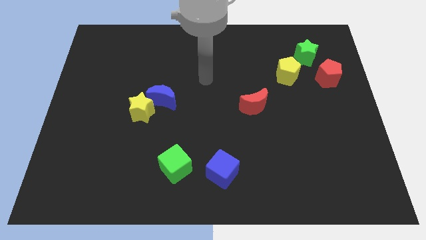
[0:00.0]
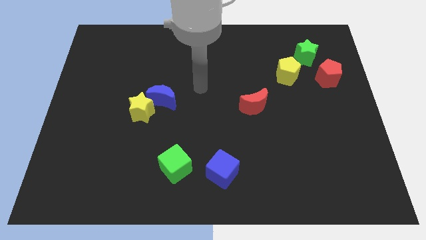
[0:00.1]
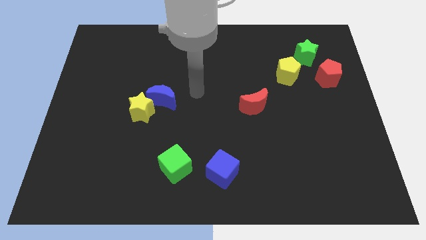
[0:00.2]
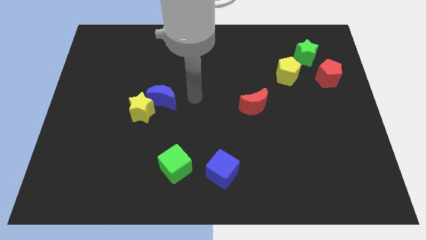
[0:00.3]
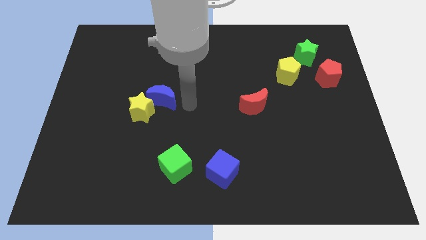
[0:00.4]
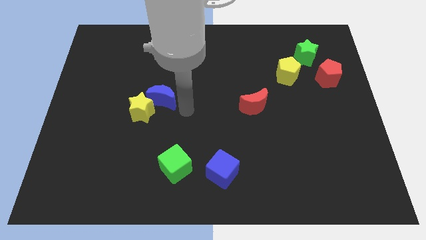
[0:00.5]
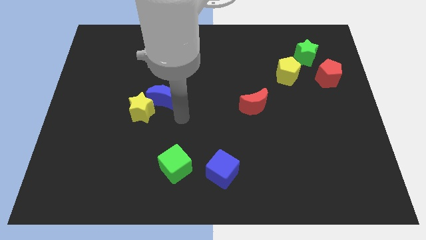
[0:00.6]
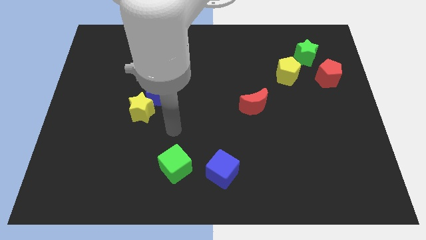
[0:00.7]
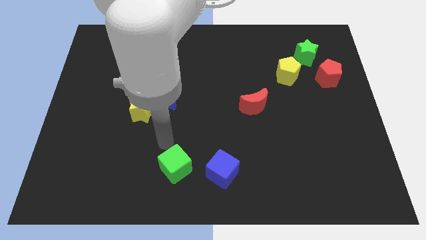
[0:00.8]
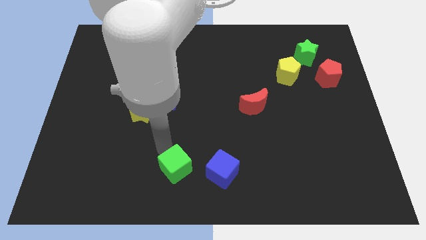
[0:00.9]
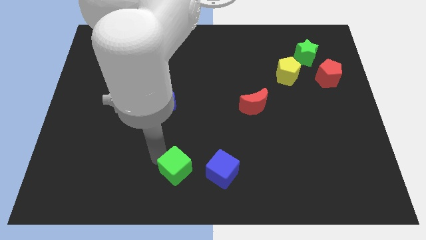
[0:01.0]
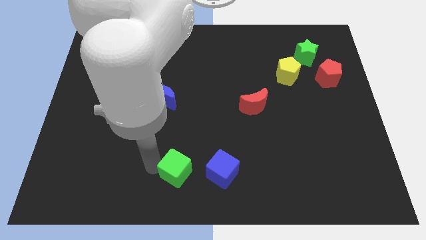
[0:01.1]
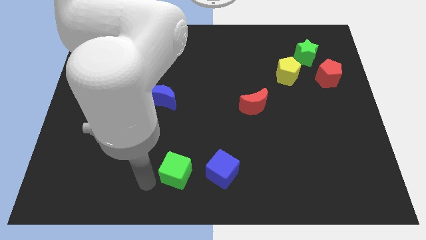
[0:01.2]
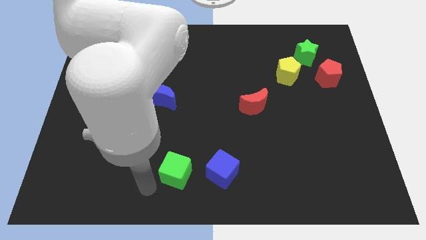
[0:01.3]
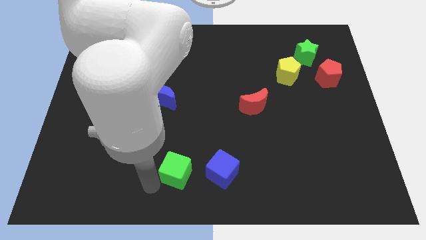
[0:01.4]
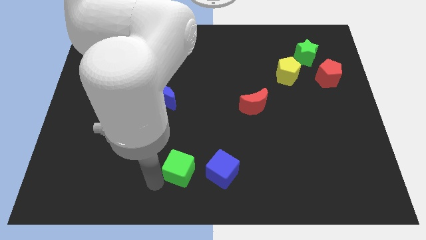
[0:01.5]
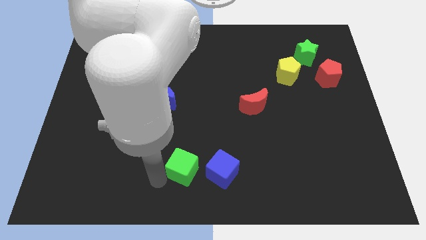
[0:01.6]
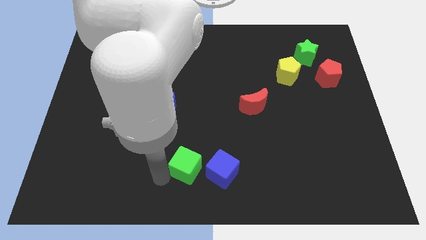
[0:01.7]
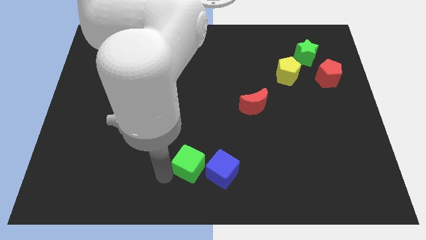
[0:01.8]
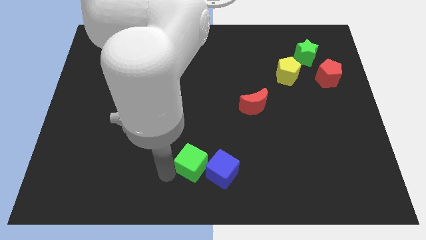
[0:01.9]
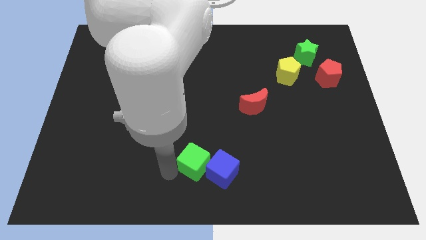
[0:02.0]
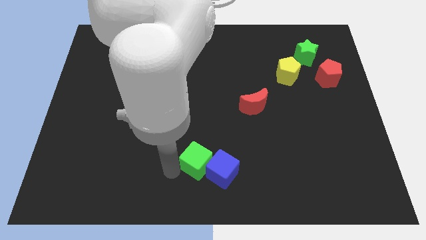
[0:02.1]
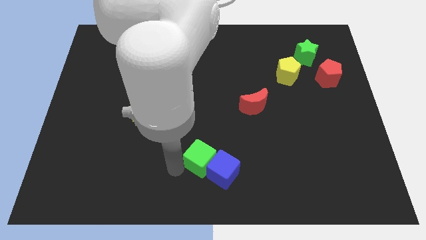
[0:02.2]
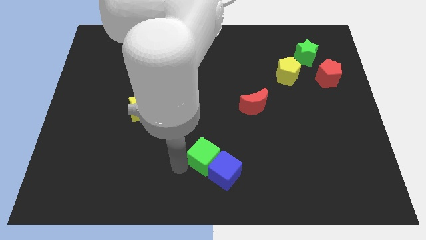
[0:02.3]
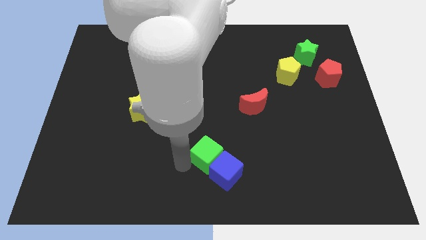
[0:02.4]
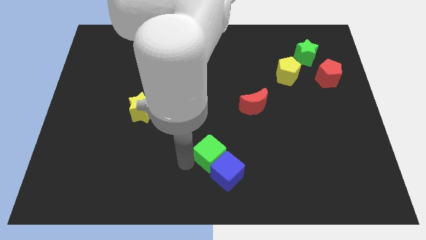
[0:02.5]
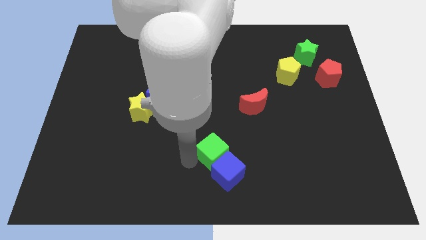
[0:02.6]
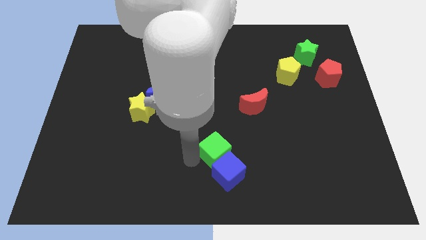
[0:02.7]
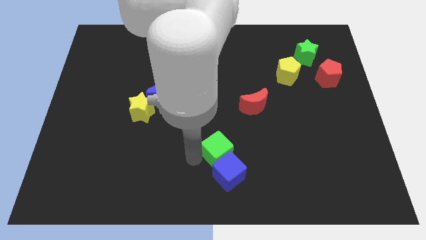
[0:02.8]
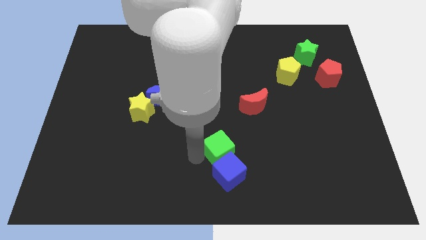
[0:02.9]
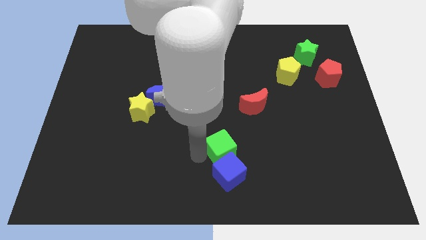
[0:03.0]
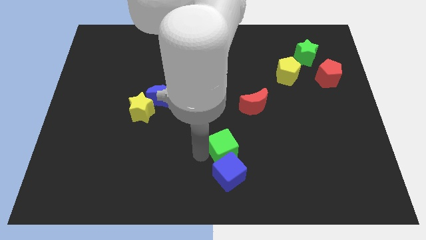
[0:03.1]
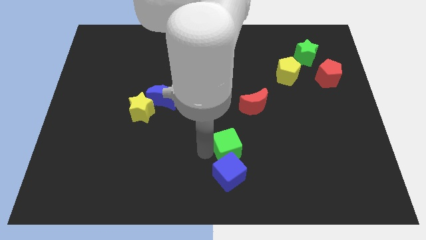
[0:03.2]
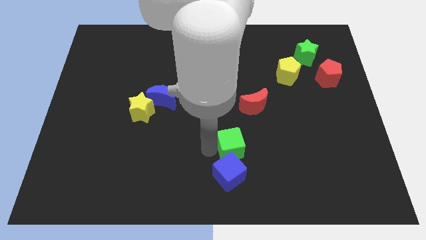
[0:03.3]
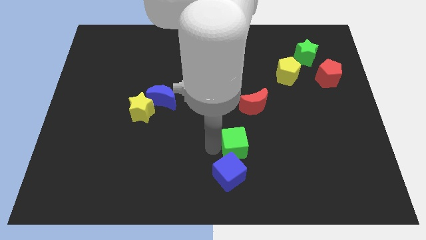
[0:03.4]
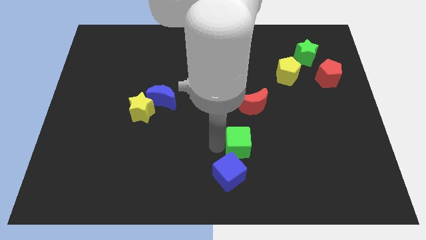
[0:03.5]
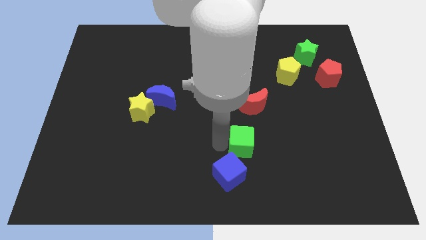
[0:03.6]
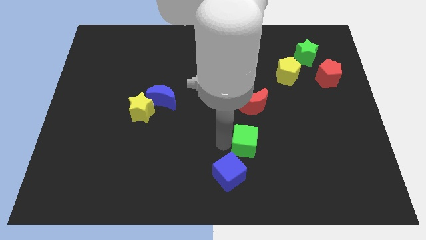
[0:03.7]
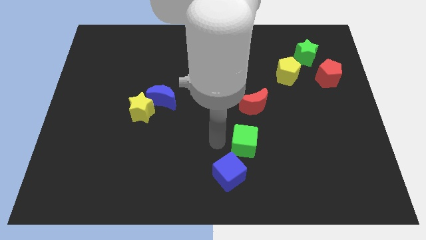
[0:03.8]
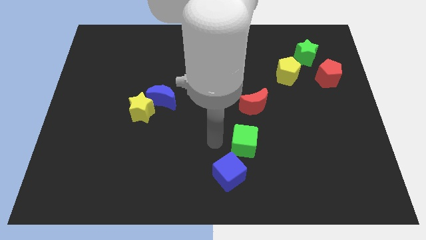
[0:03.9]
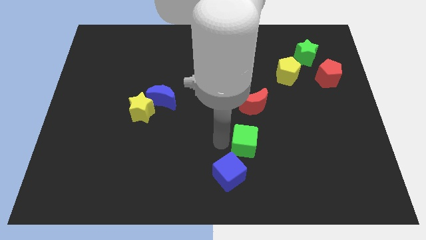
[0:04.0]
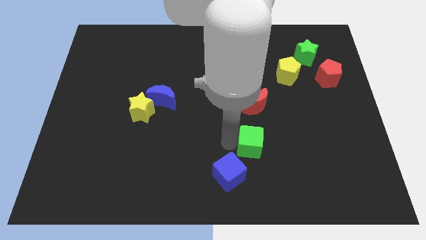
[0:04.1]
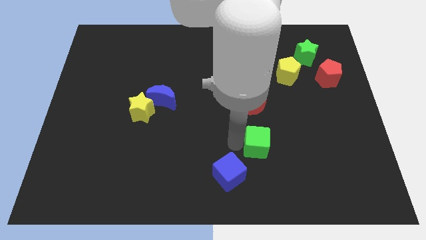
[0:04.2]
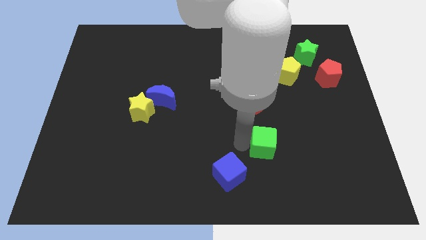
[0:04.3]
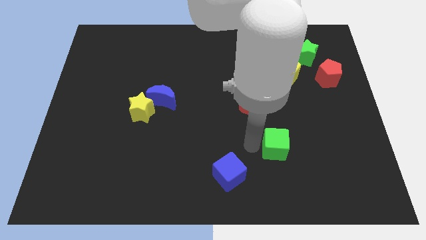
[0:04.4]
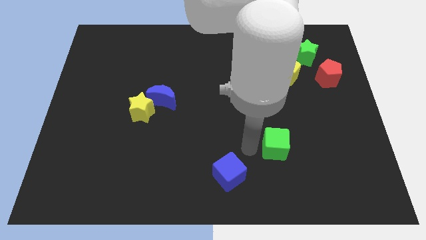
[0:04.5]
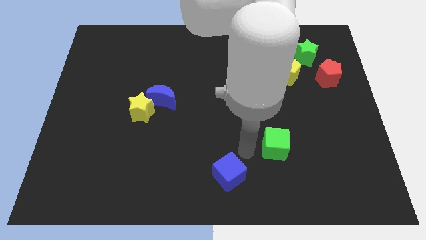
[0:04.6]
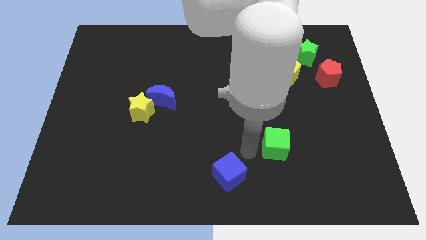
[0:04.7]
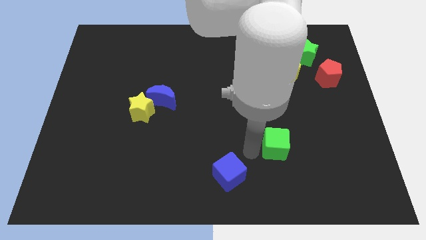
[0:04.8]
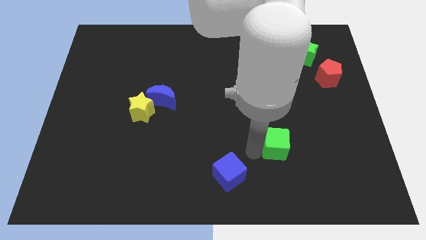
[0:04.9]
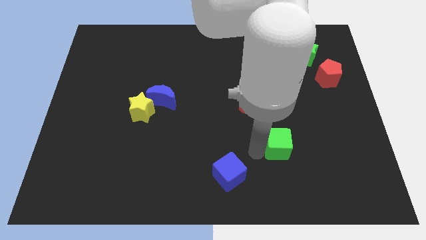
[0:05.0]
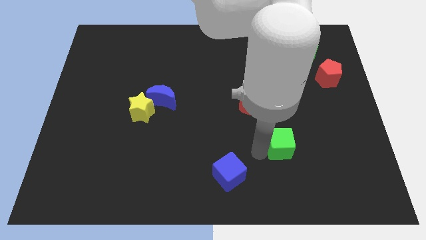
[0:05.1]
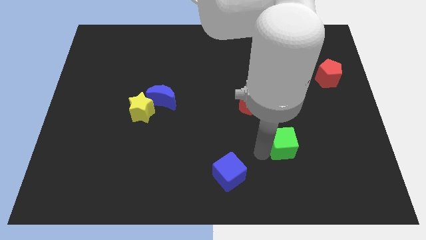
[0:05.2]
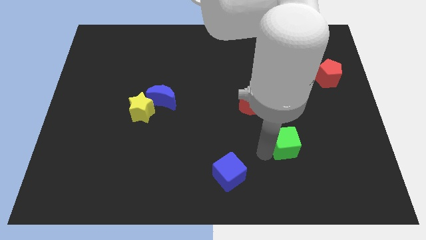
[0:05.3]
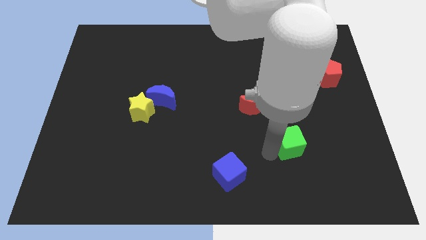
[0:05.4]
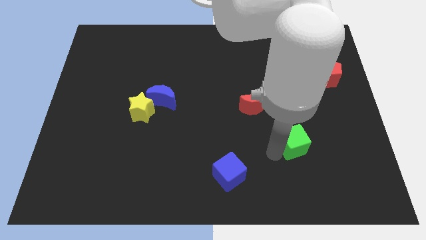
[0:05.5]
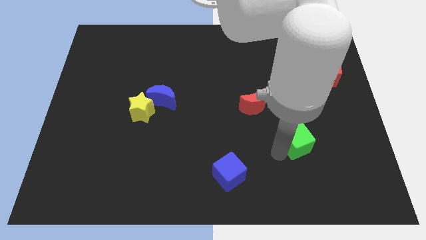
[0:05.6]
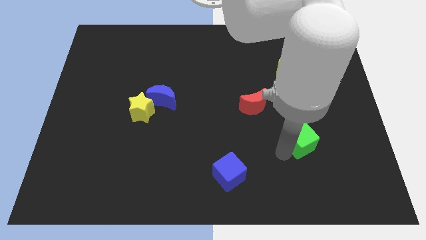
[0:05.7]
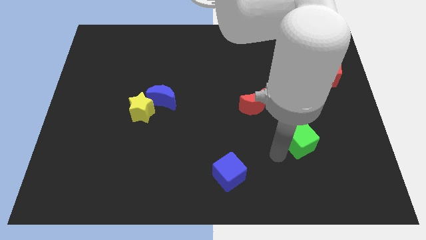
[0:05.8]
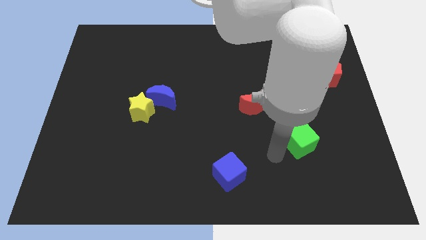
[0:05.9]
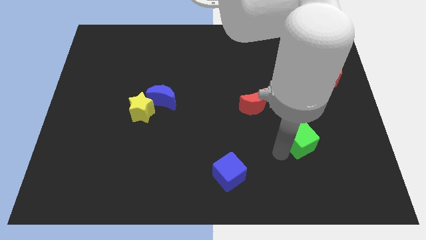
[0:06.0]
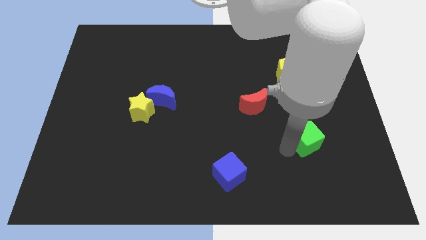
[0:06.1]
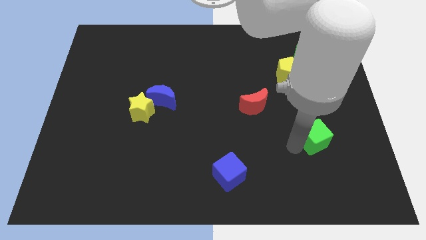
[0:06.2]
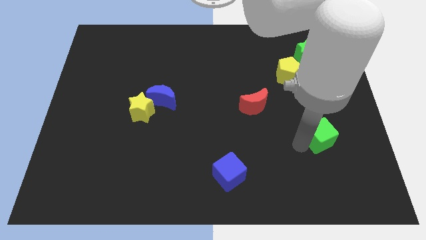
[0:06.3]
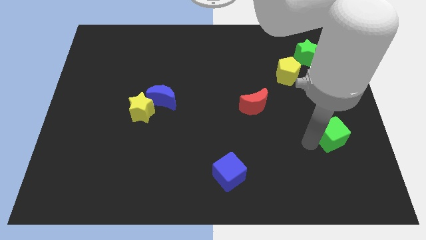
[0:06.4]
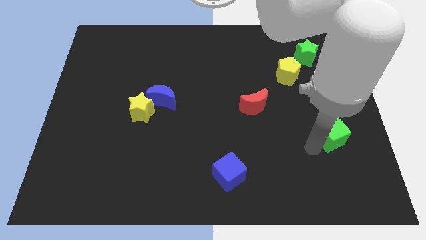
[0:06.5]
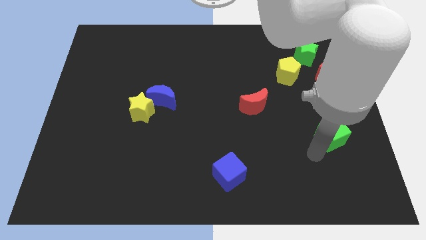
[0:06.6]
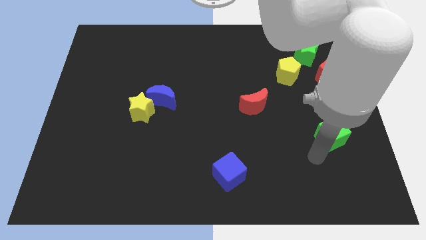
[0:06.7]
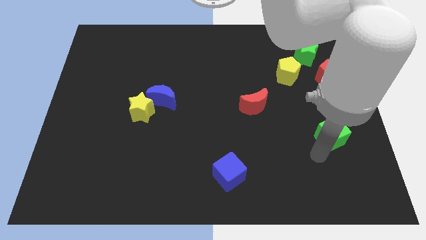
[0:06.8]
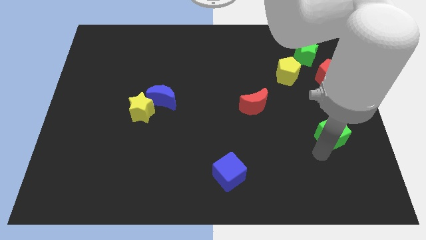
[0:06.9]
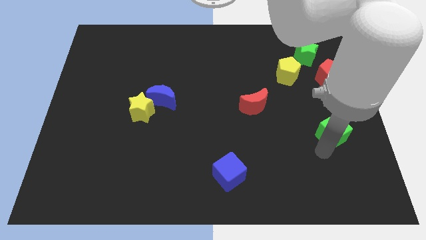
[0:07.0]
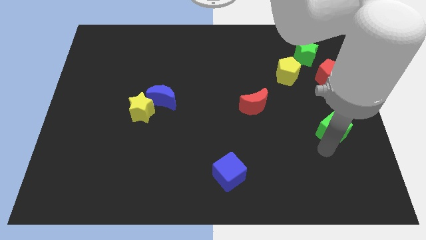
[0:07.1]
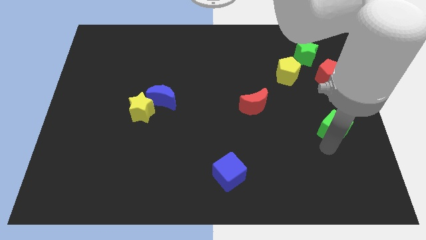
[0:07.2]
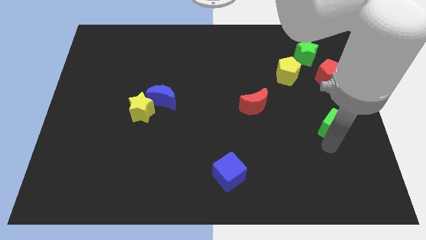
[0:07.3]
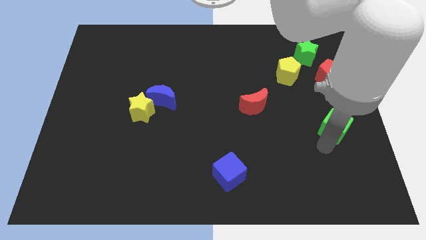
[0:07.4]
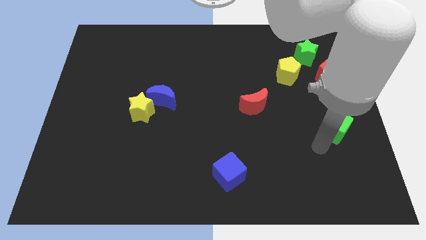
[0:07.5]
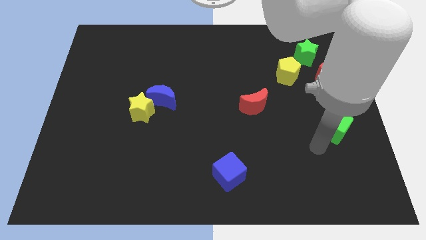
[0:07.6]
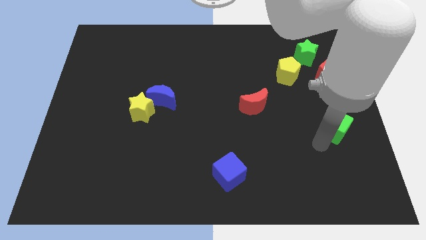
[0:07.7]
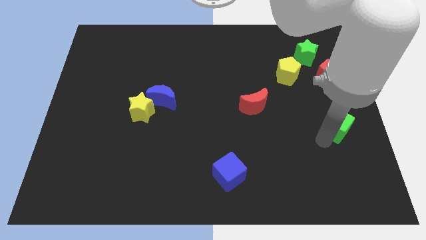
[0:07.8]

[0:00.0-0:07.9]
move the green cube to the center right
